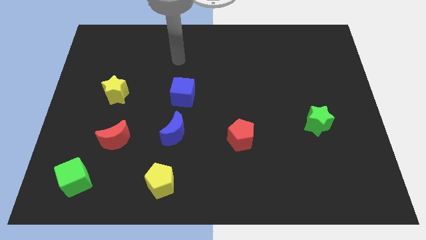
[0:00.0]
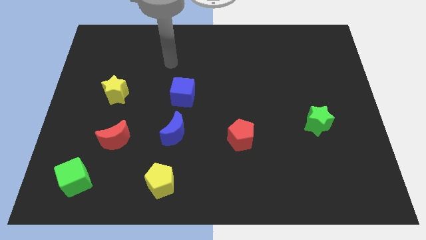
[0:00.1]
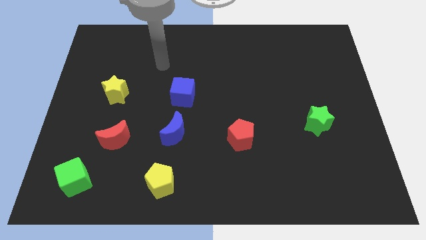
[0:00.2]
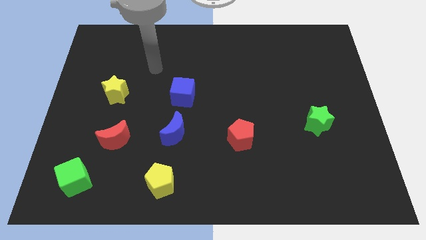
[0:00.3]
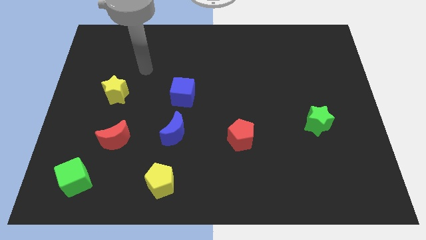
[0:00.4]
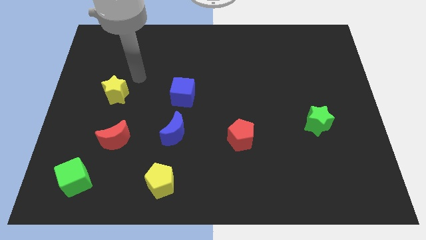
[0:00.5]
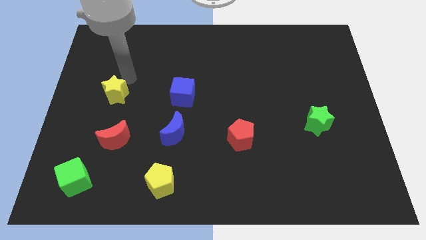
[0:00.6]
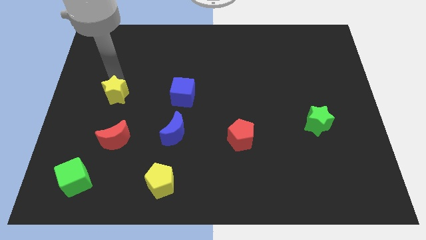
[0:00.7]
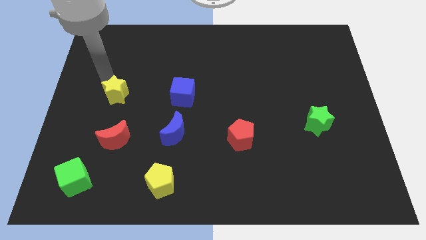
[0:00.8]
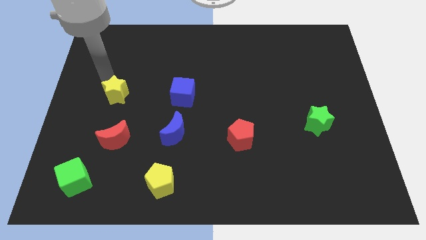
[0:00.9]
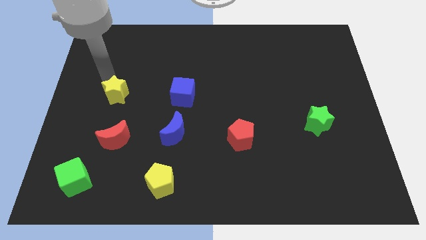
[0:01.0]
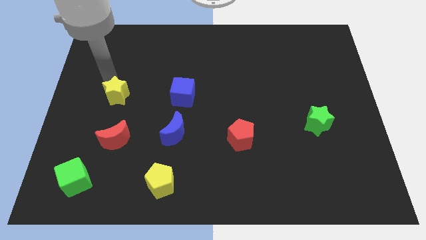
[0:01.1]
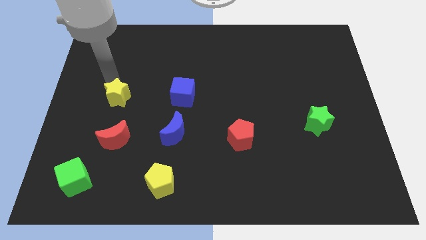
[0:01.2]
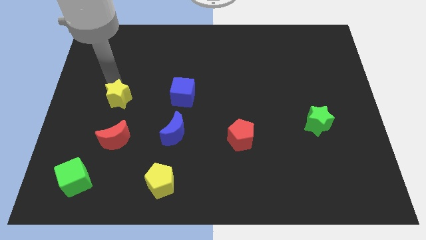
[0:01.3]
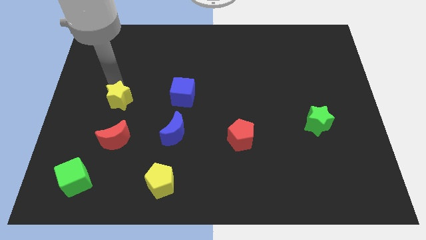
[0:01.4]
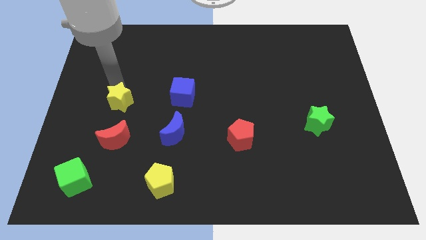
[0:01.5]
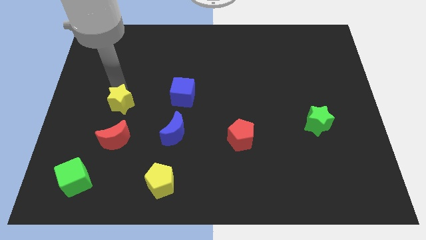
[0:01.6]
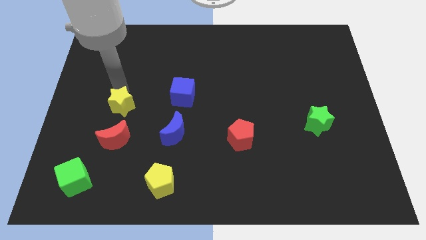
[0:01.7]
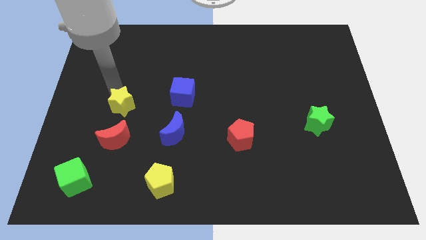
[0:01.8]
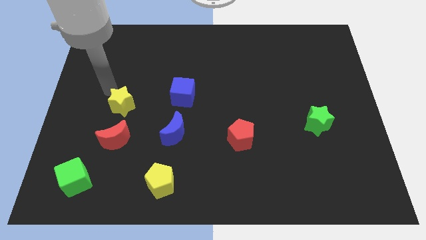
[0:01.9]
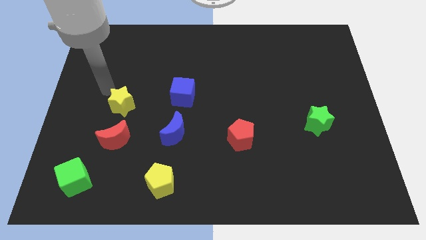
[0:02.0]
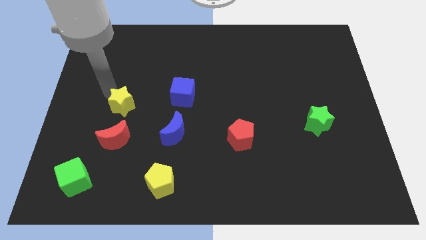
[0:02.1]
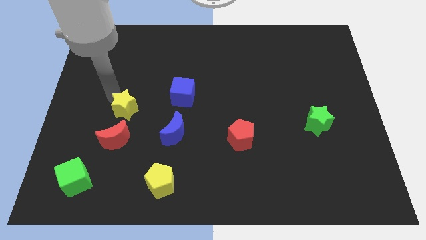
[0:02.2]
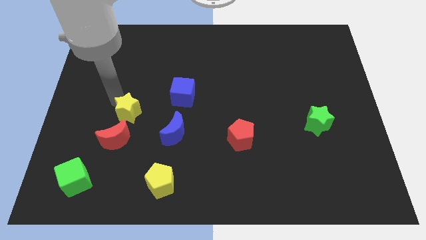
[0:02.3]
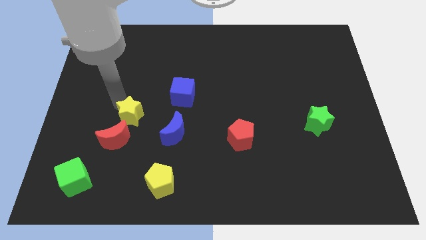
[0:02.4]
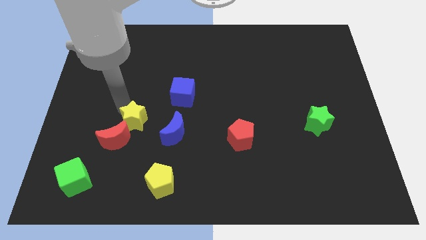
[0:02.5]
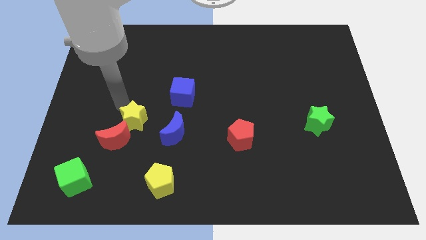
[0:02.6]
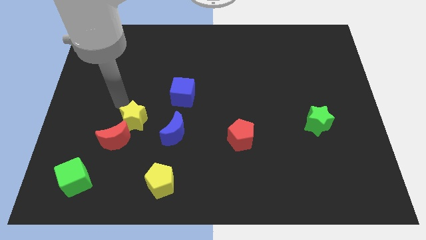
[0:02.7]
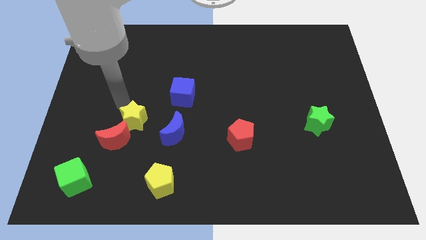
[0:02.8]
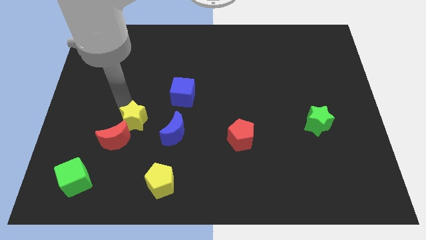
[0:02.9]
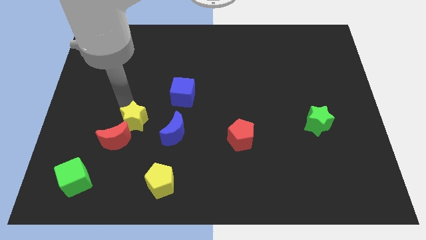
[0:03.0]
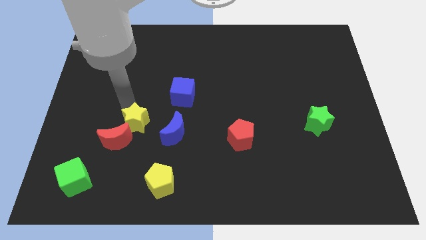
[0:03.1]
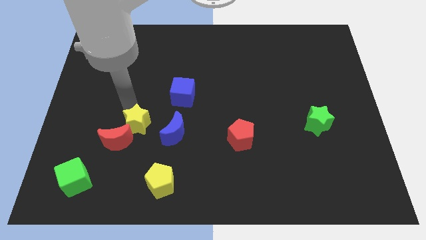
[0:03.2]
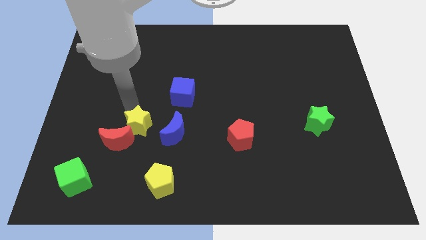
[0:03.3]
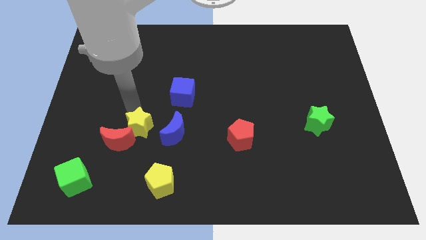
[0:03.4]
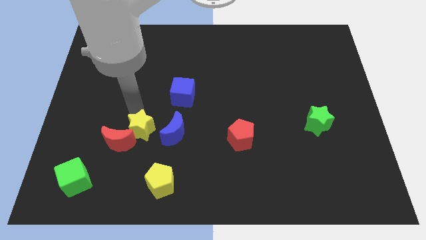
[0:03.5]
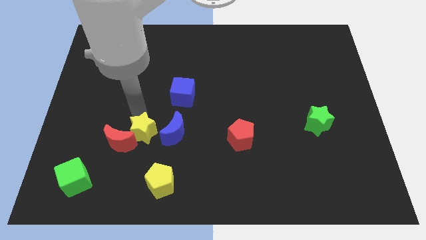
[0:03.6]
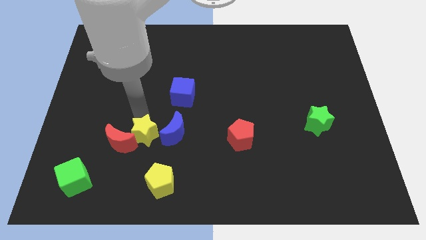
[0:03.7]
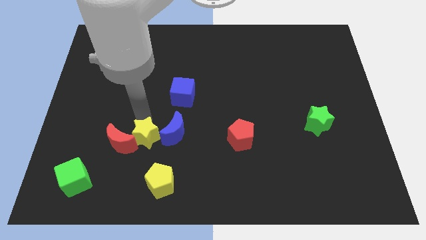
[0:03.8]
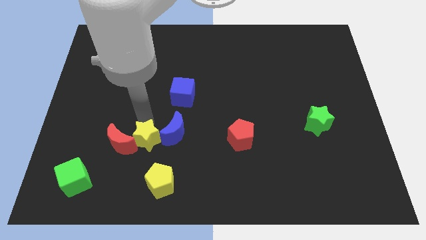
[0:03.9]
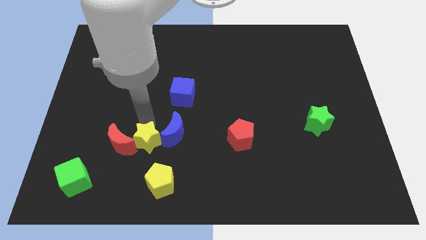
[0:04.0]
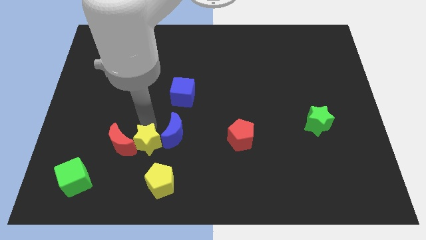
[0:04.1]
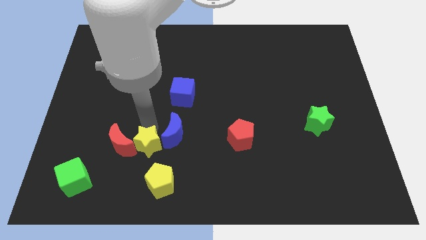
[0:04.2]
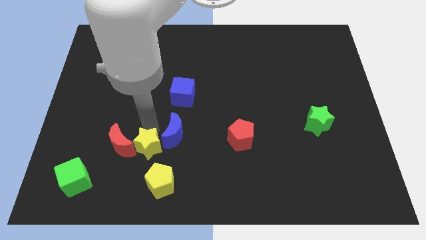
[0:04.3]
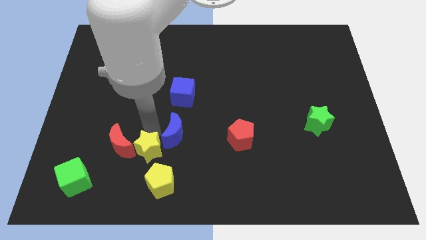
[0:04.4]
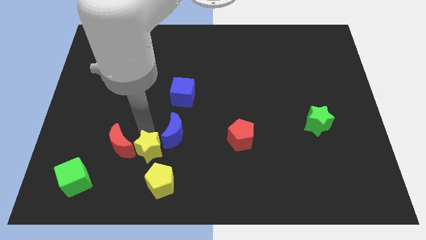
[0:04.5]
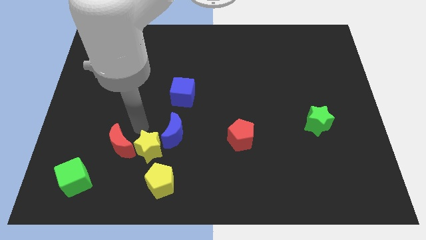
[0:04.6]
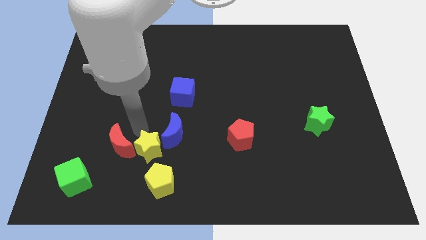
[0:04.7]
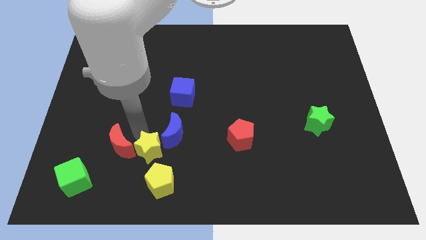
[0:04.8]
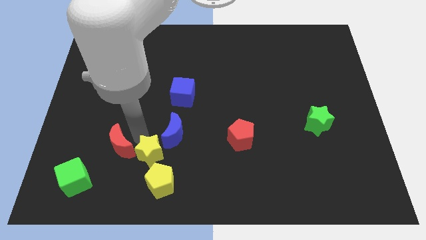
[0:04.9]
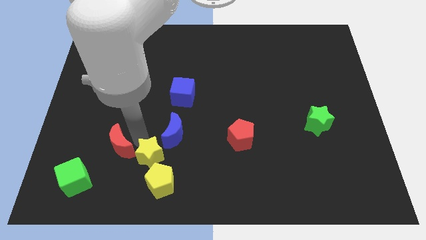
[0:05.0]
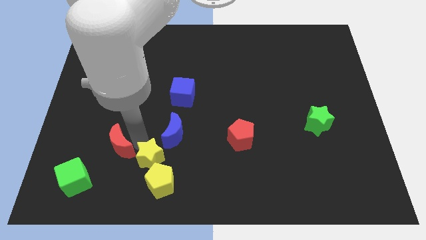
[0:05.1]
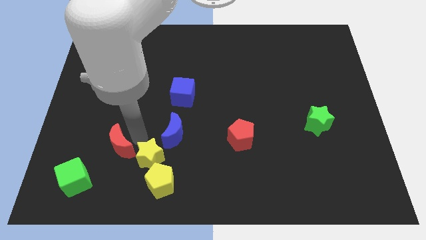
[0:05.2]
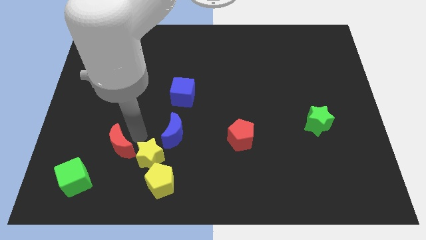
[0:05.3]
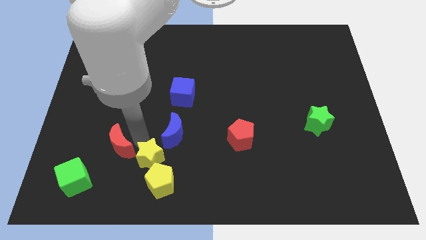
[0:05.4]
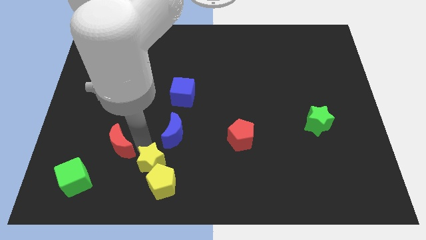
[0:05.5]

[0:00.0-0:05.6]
move the yellow star close to the yellow pentagon

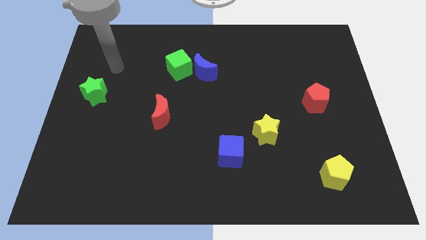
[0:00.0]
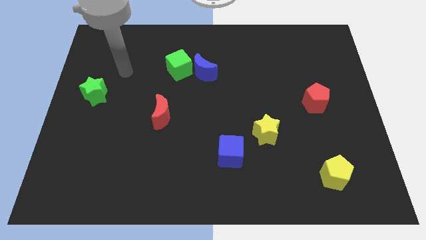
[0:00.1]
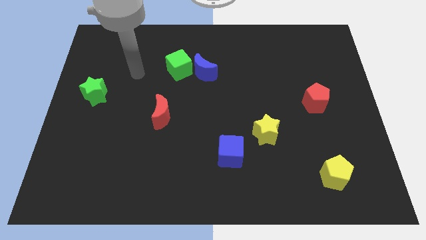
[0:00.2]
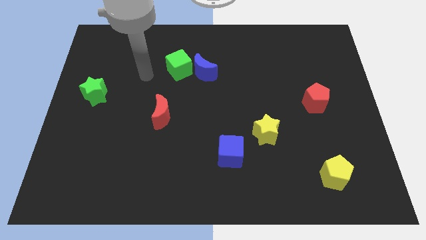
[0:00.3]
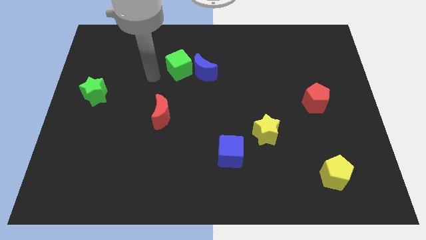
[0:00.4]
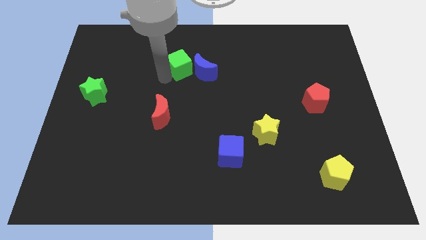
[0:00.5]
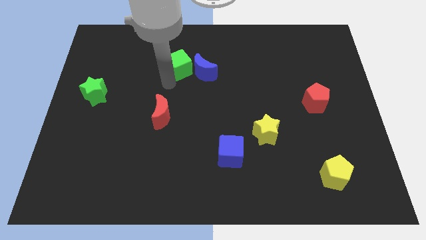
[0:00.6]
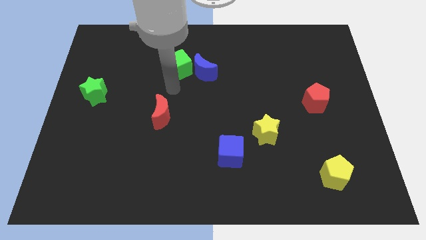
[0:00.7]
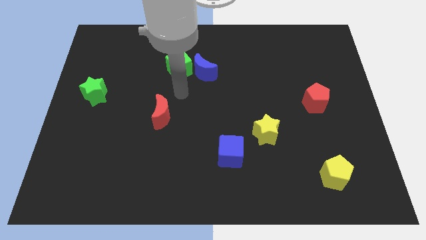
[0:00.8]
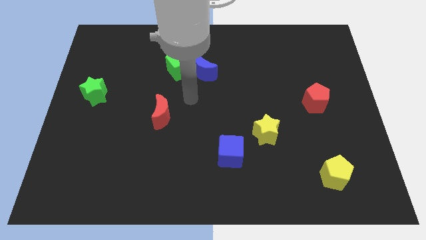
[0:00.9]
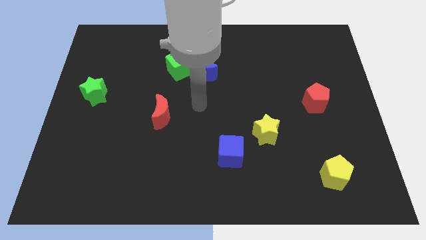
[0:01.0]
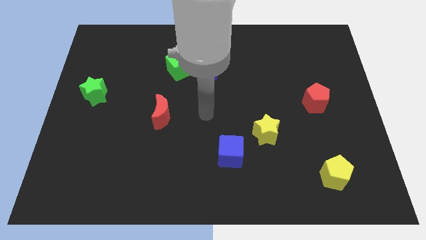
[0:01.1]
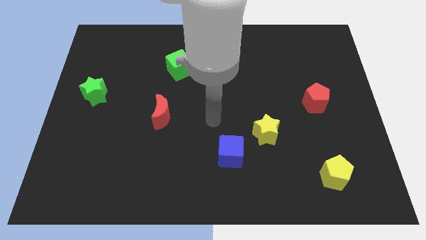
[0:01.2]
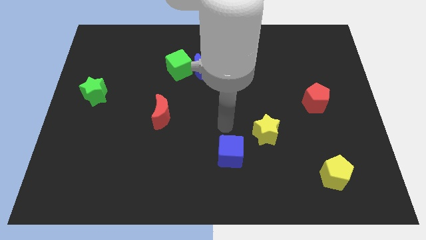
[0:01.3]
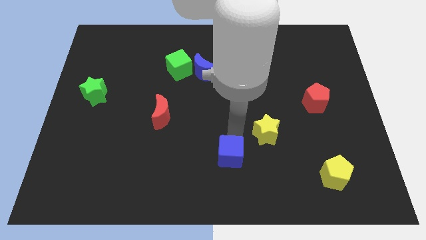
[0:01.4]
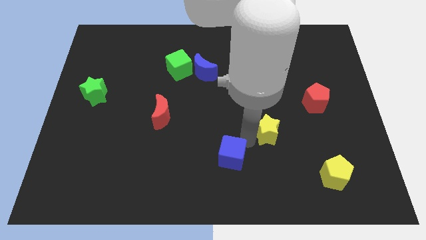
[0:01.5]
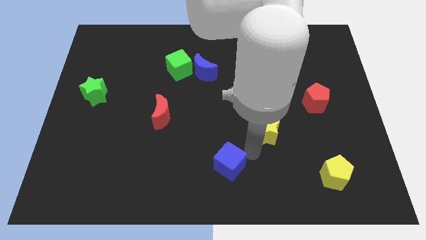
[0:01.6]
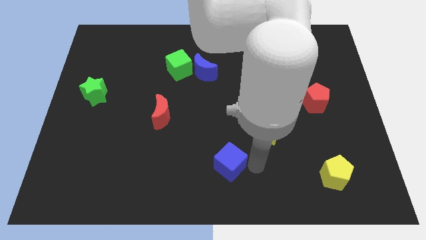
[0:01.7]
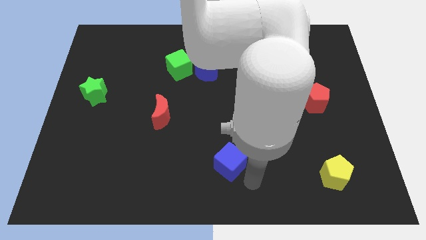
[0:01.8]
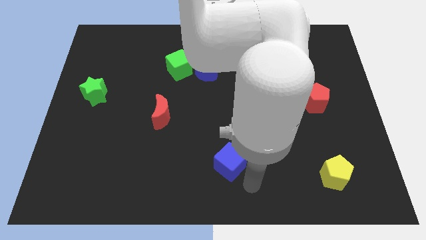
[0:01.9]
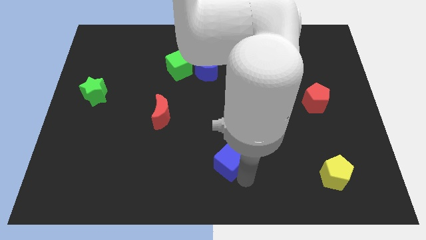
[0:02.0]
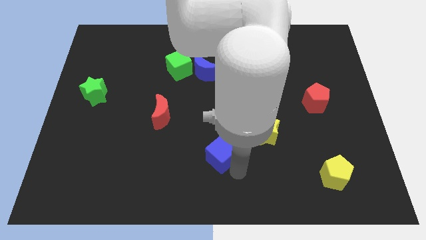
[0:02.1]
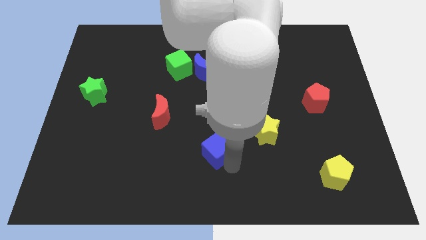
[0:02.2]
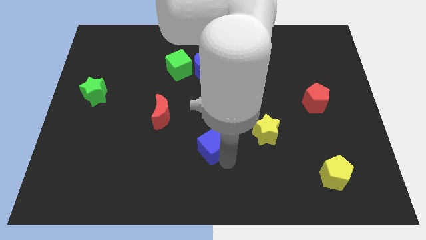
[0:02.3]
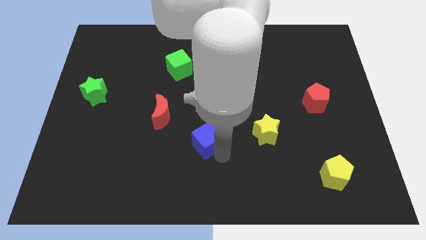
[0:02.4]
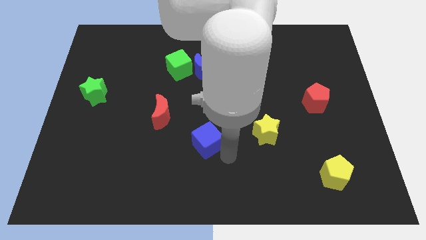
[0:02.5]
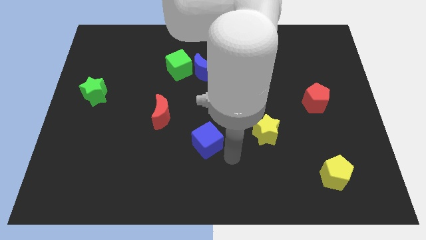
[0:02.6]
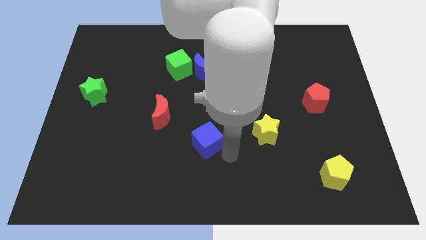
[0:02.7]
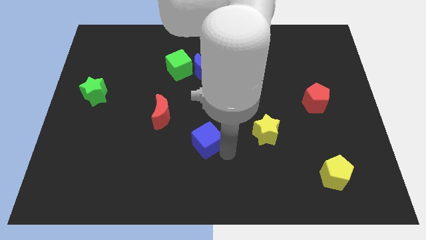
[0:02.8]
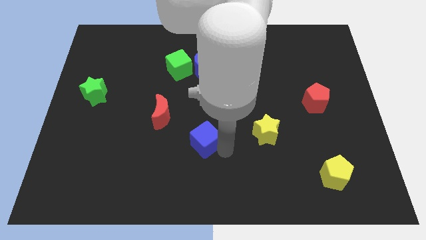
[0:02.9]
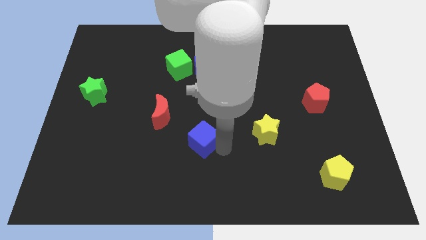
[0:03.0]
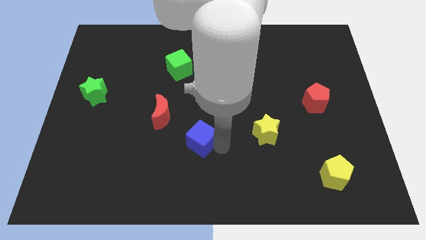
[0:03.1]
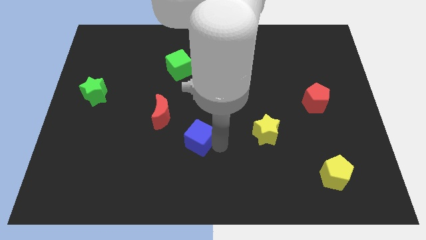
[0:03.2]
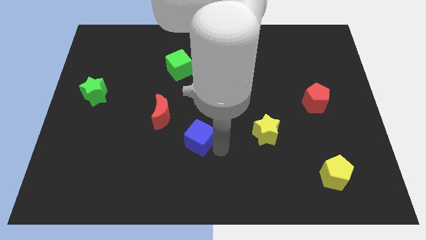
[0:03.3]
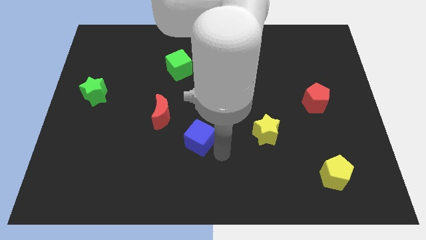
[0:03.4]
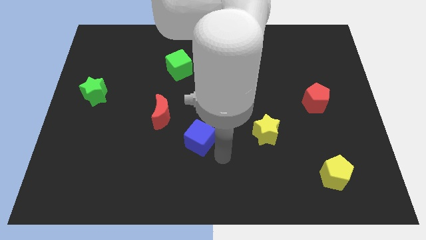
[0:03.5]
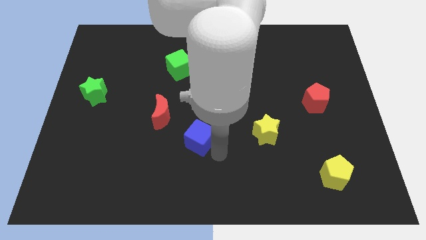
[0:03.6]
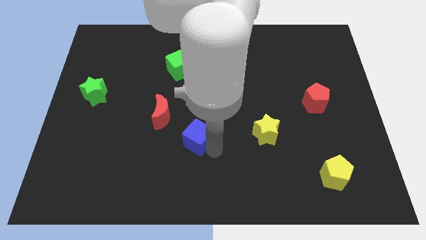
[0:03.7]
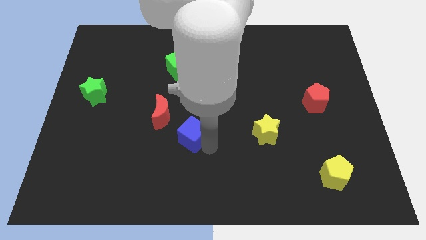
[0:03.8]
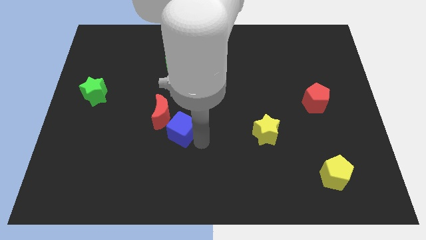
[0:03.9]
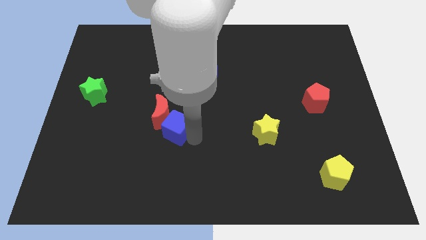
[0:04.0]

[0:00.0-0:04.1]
push the blue cube towards the red moon
